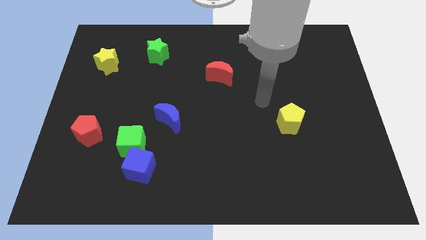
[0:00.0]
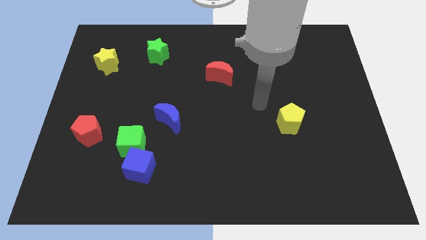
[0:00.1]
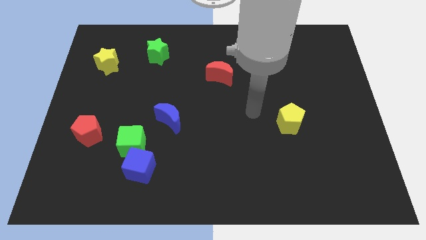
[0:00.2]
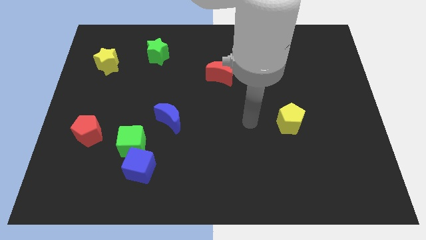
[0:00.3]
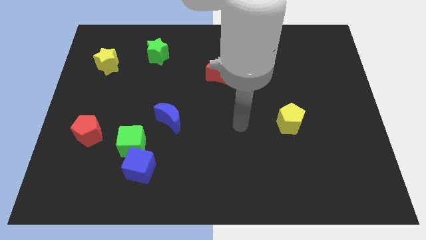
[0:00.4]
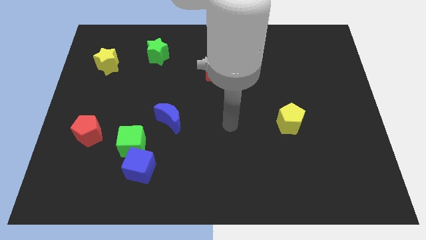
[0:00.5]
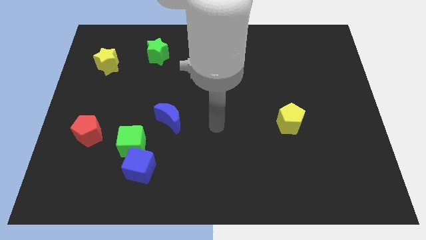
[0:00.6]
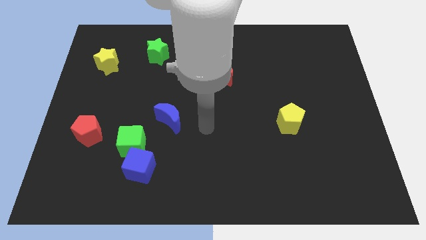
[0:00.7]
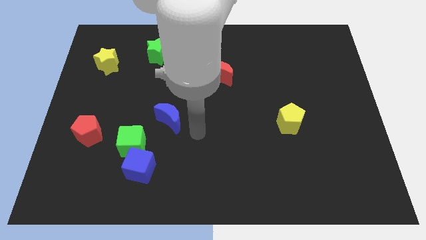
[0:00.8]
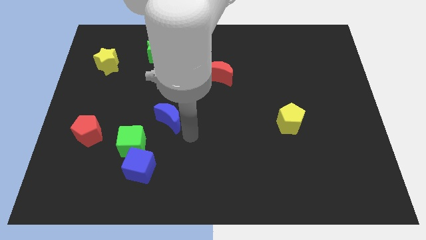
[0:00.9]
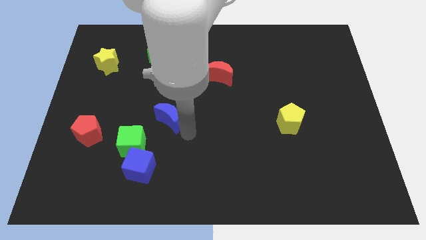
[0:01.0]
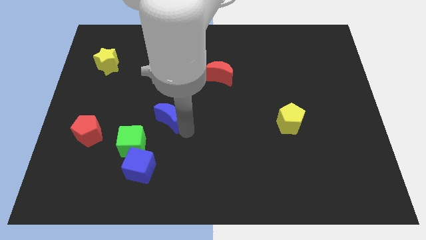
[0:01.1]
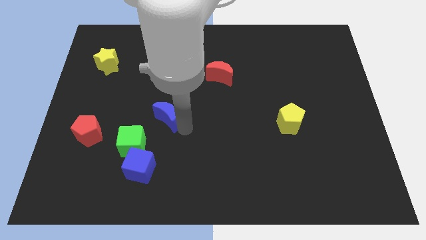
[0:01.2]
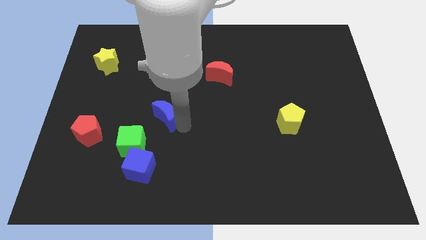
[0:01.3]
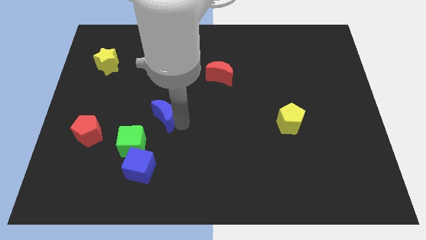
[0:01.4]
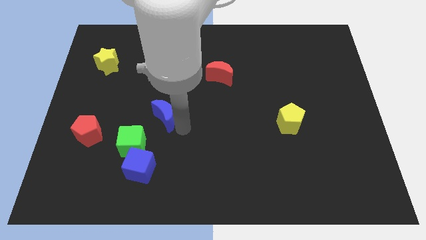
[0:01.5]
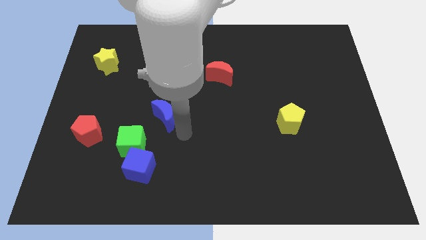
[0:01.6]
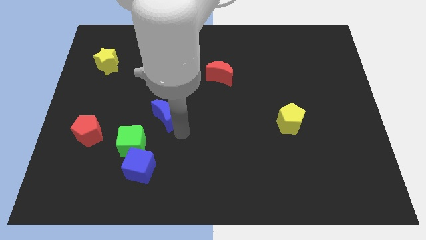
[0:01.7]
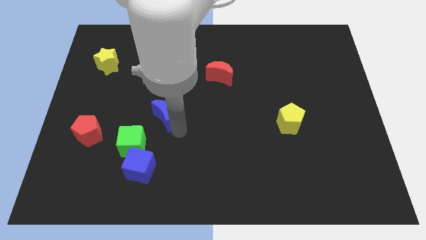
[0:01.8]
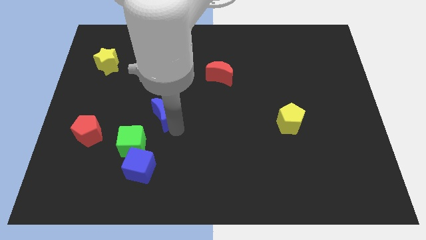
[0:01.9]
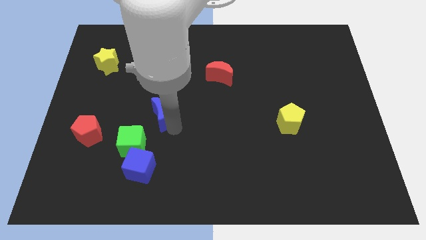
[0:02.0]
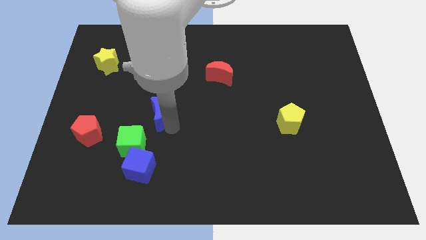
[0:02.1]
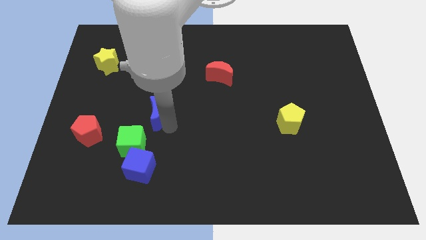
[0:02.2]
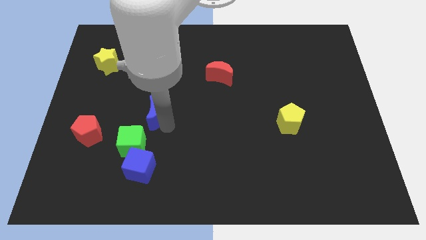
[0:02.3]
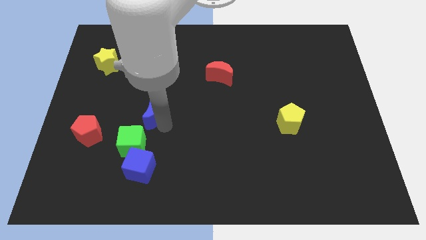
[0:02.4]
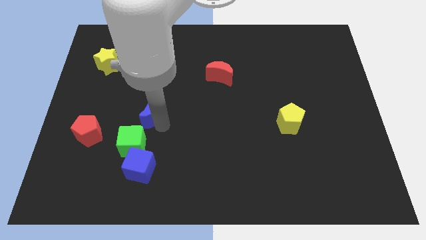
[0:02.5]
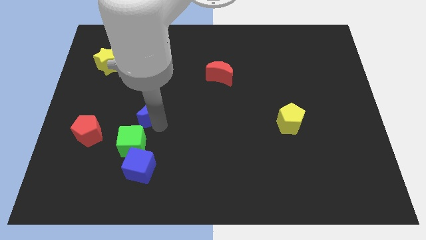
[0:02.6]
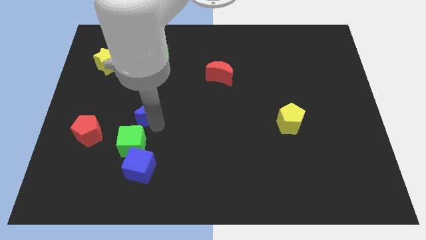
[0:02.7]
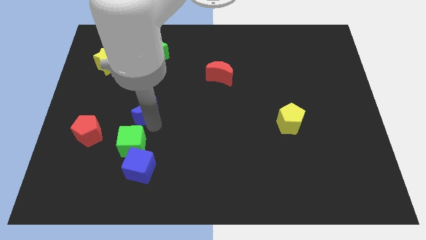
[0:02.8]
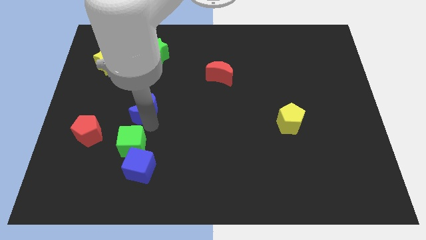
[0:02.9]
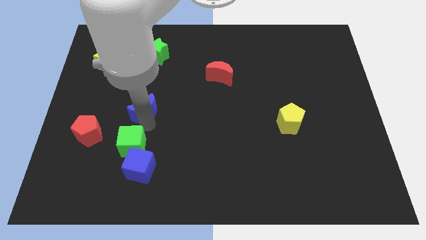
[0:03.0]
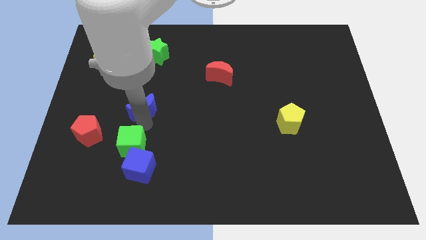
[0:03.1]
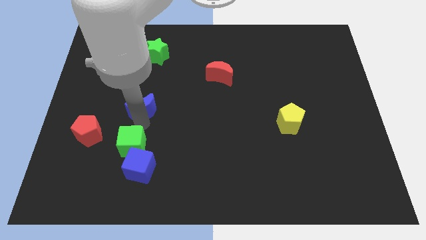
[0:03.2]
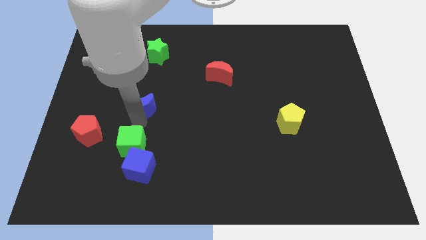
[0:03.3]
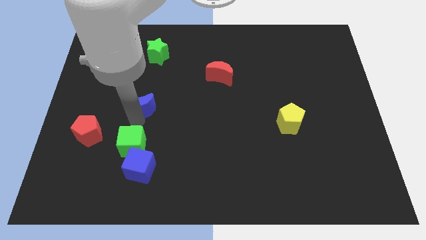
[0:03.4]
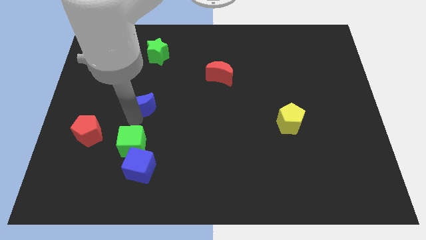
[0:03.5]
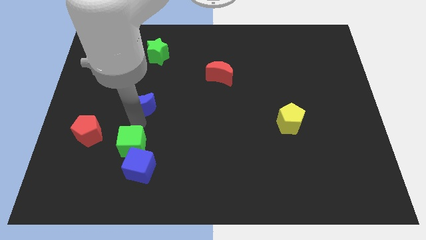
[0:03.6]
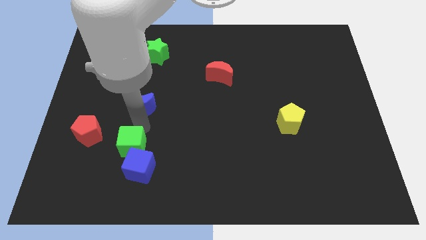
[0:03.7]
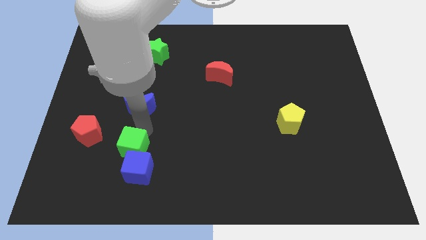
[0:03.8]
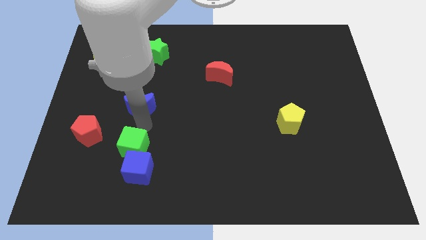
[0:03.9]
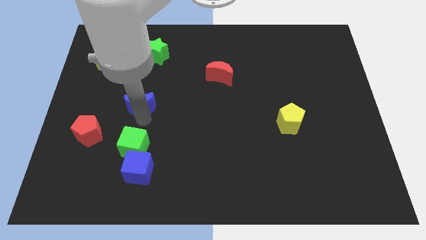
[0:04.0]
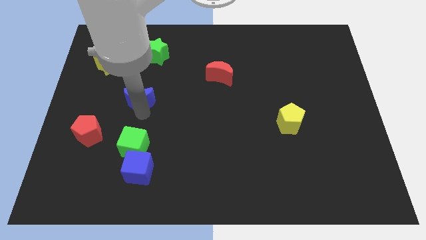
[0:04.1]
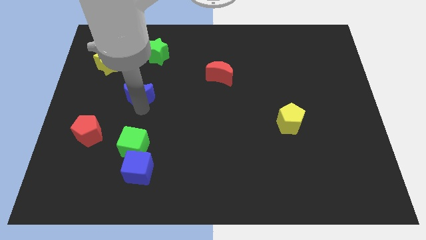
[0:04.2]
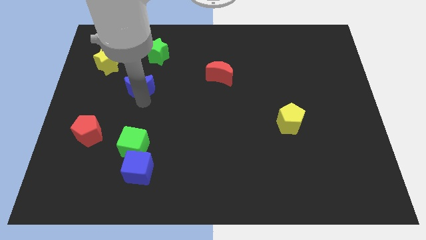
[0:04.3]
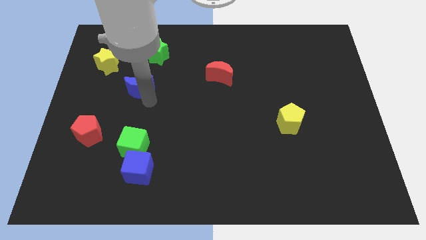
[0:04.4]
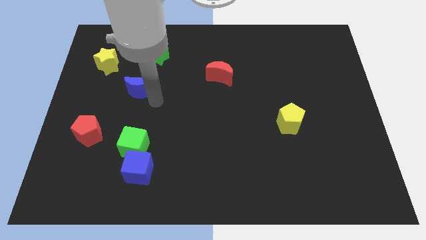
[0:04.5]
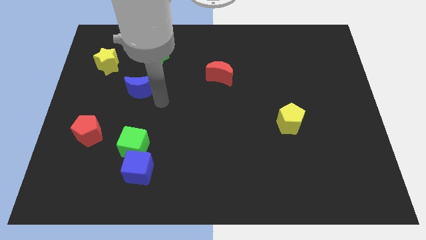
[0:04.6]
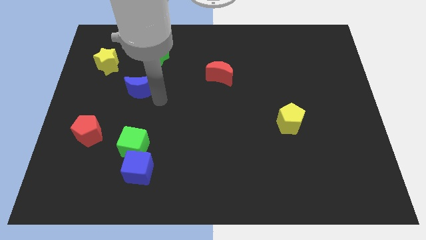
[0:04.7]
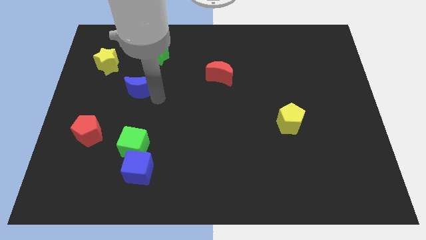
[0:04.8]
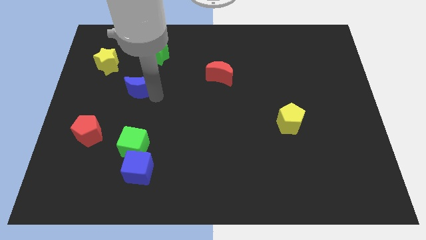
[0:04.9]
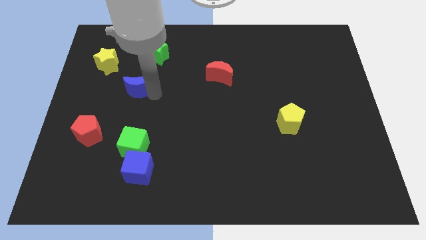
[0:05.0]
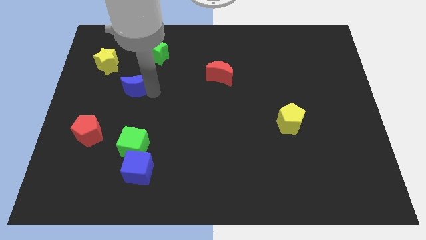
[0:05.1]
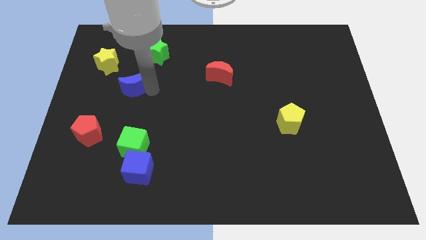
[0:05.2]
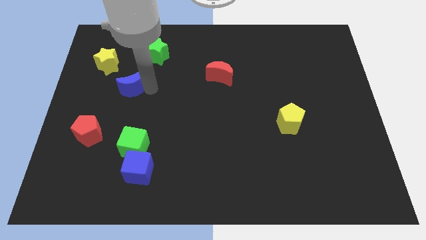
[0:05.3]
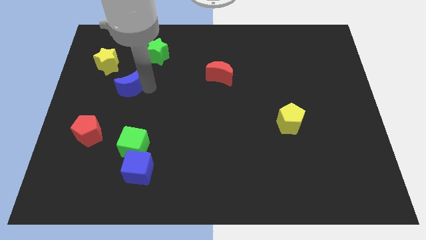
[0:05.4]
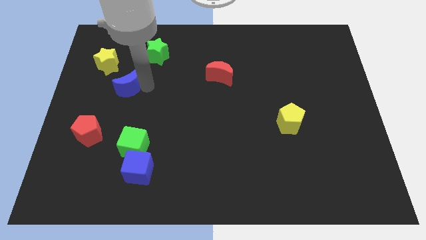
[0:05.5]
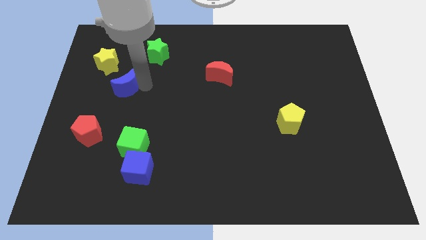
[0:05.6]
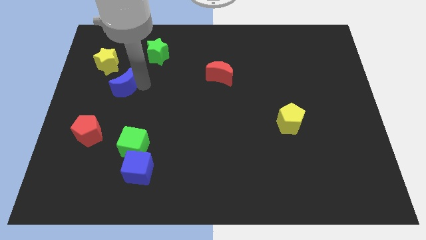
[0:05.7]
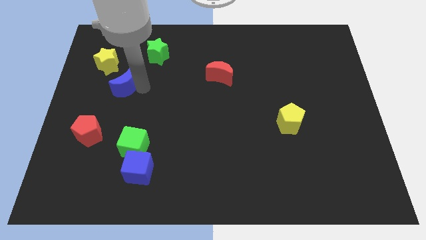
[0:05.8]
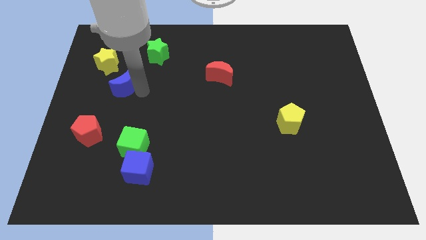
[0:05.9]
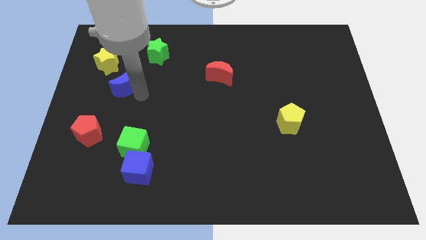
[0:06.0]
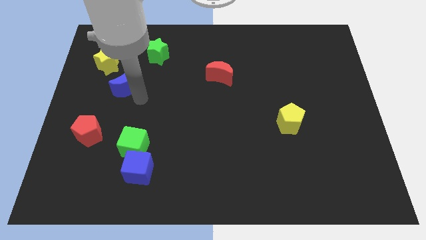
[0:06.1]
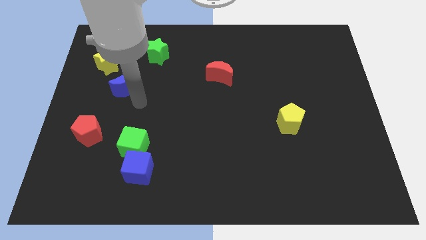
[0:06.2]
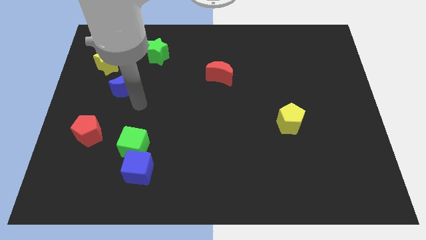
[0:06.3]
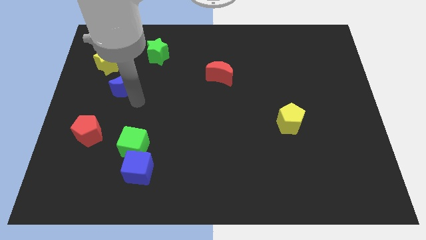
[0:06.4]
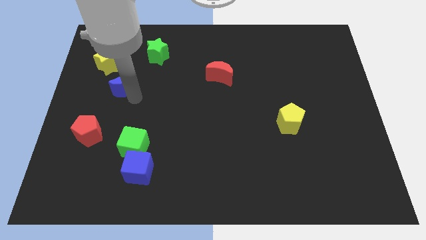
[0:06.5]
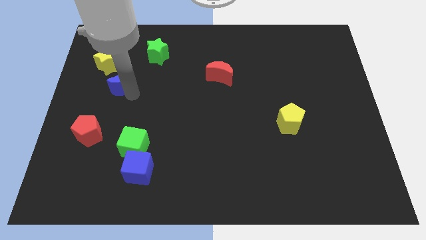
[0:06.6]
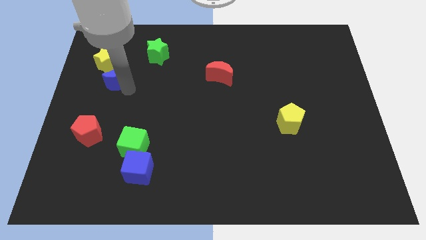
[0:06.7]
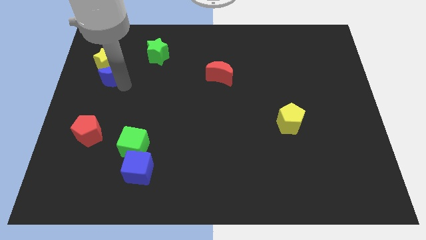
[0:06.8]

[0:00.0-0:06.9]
slide the blue moon next to the yellow star
